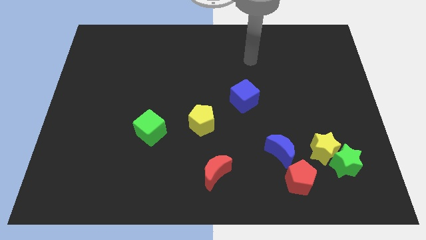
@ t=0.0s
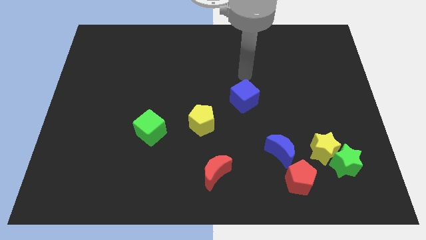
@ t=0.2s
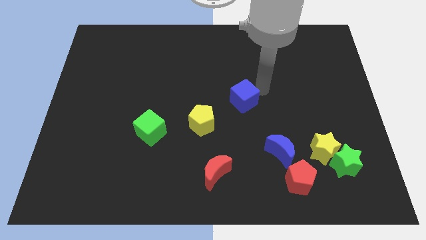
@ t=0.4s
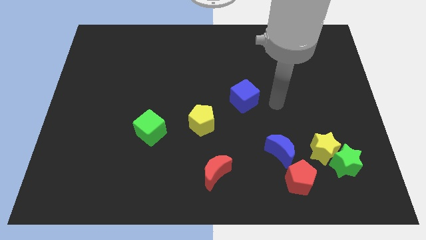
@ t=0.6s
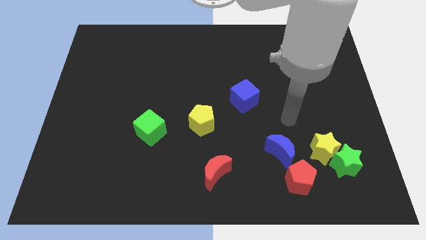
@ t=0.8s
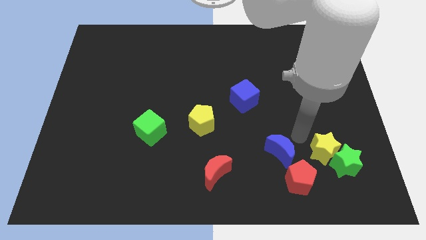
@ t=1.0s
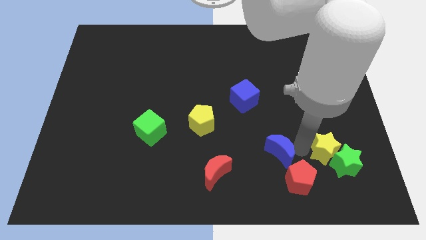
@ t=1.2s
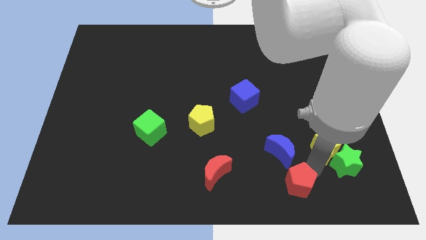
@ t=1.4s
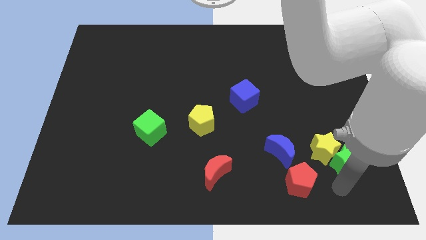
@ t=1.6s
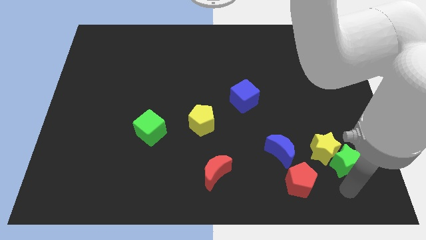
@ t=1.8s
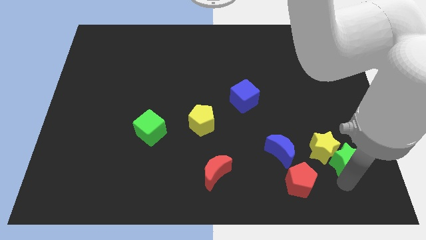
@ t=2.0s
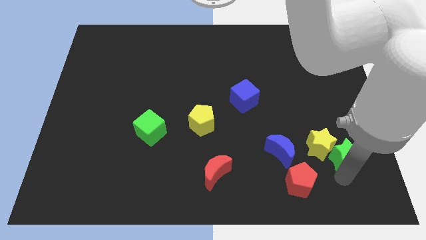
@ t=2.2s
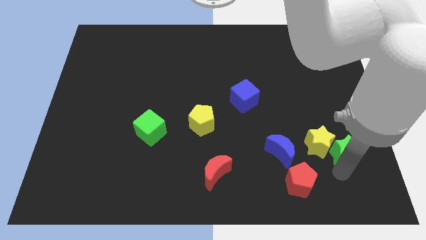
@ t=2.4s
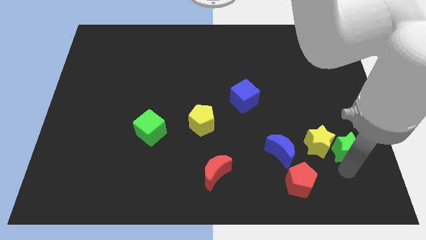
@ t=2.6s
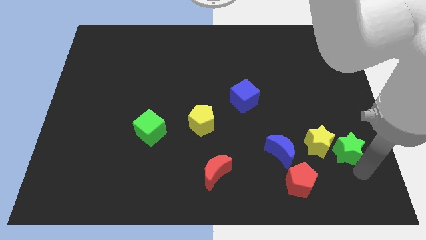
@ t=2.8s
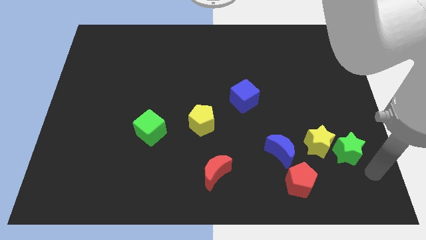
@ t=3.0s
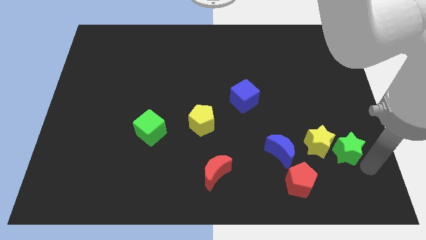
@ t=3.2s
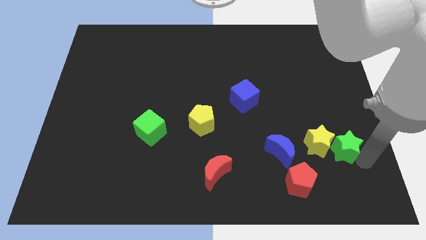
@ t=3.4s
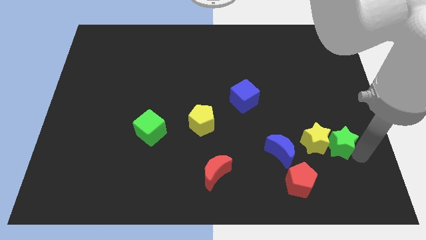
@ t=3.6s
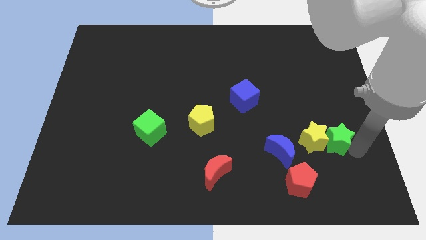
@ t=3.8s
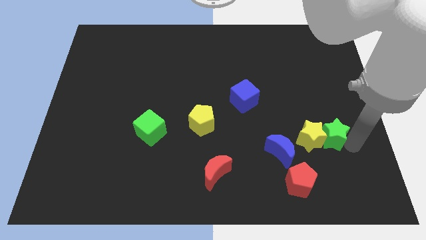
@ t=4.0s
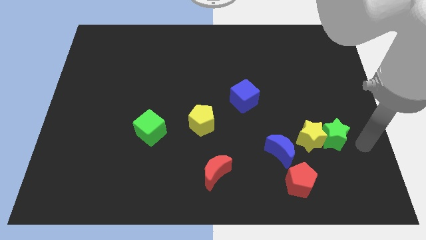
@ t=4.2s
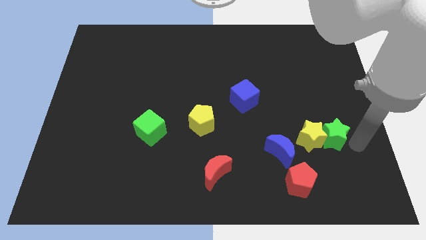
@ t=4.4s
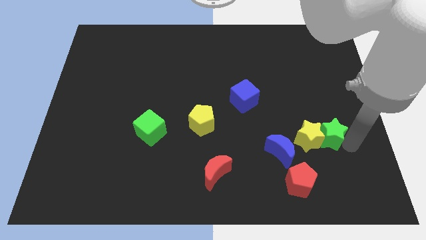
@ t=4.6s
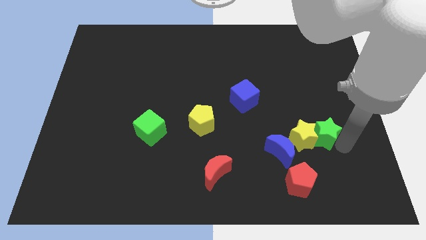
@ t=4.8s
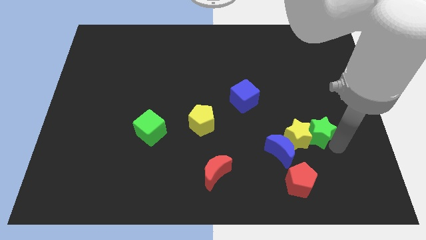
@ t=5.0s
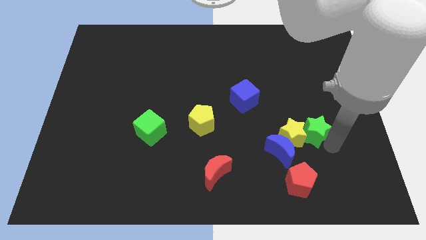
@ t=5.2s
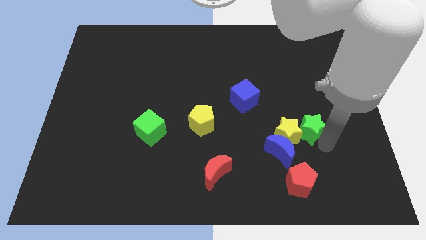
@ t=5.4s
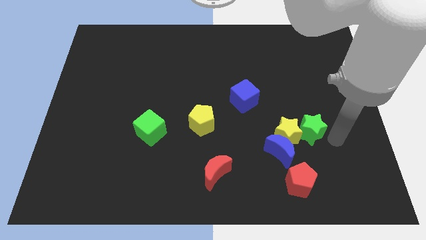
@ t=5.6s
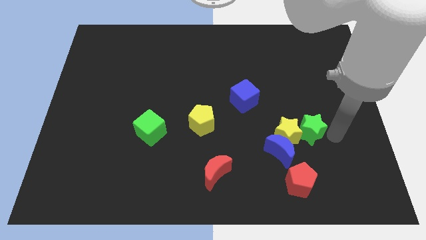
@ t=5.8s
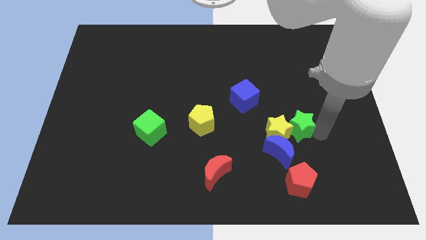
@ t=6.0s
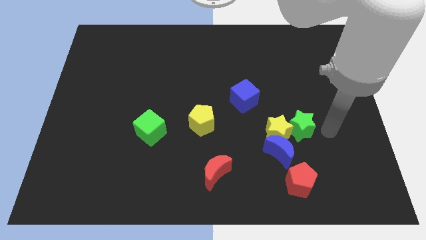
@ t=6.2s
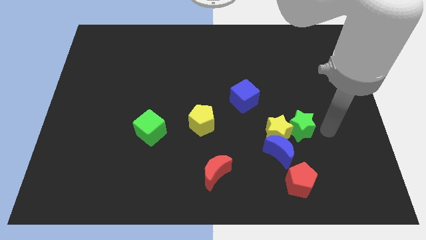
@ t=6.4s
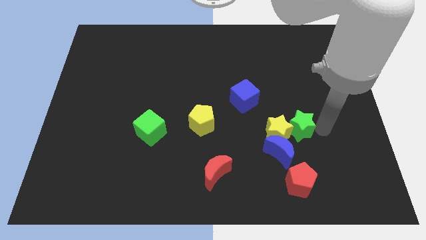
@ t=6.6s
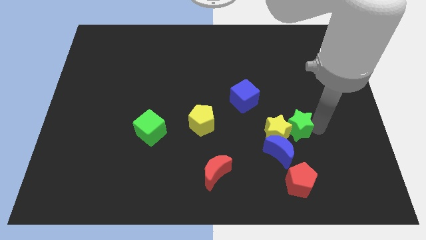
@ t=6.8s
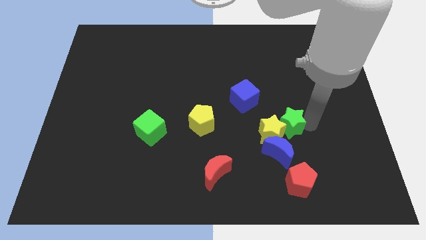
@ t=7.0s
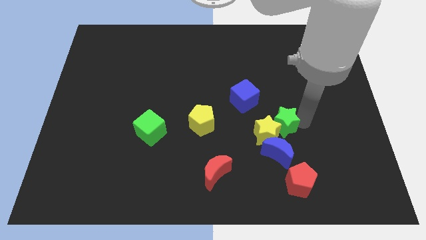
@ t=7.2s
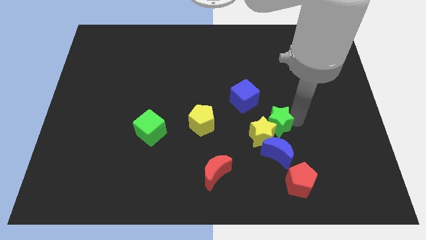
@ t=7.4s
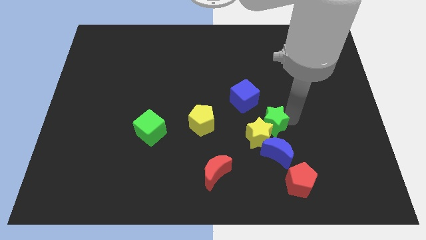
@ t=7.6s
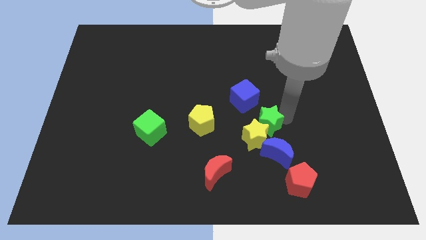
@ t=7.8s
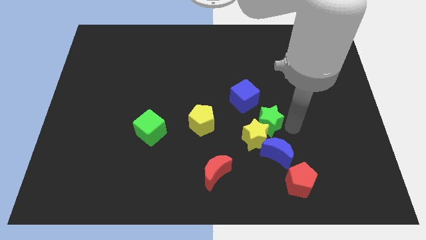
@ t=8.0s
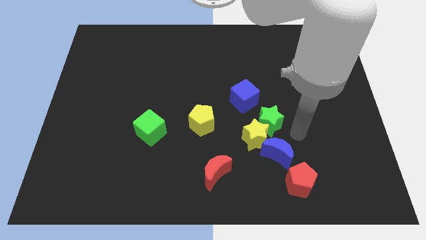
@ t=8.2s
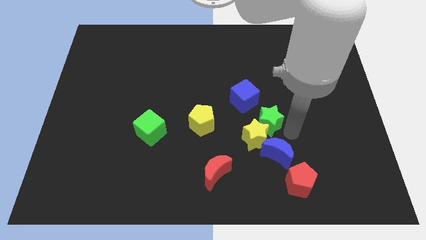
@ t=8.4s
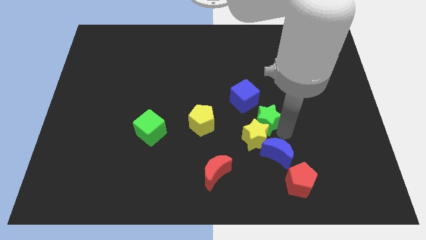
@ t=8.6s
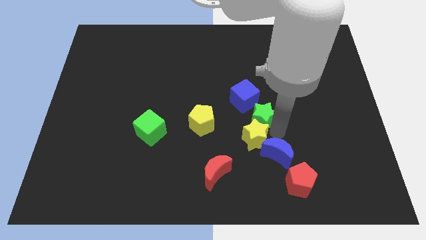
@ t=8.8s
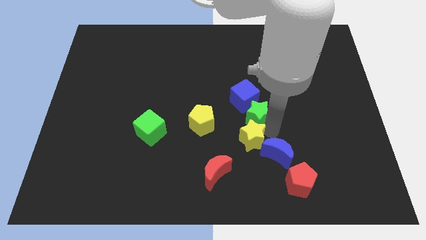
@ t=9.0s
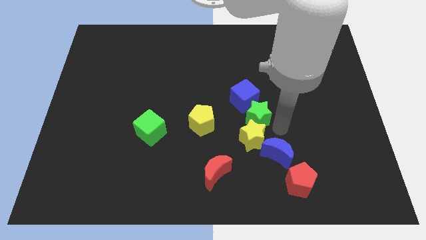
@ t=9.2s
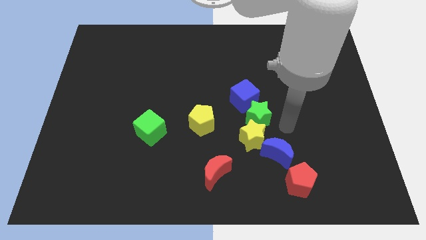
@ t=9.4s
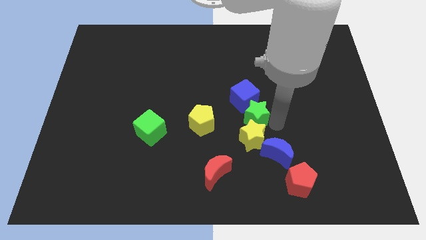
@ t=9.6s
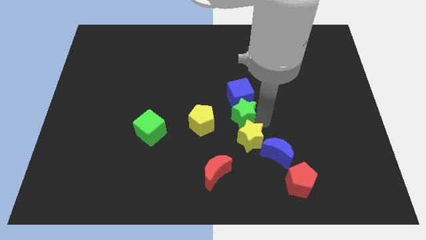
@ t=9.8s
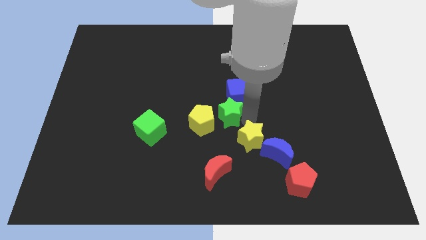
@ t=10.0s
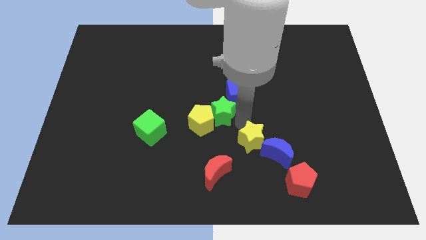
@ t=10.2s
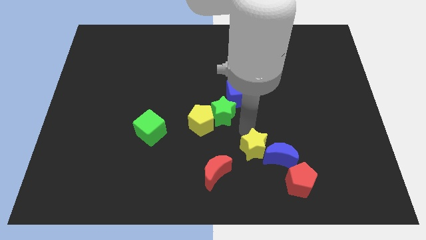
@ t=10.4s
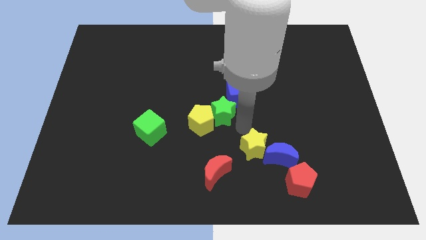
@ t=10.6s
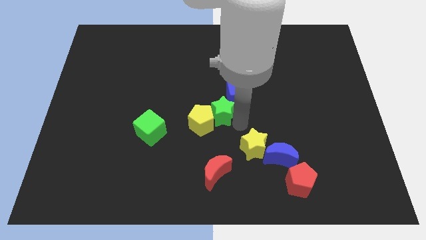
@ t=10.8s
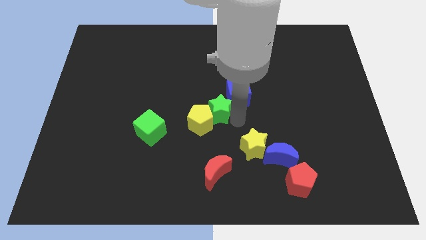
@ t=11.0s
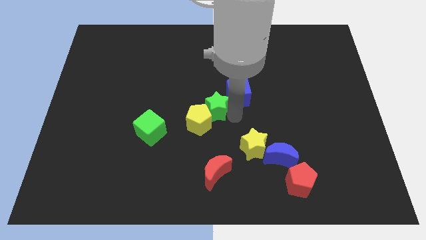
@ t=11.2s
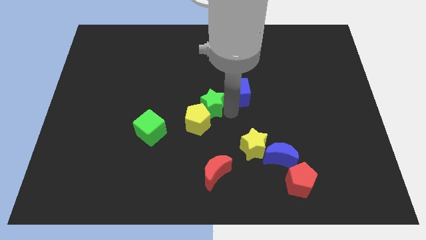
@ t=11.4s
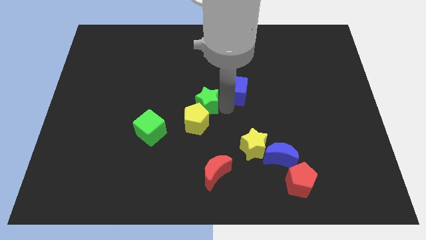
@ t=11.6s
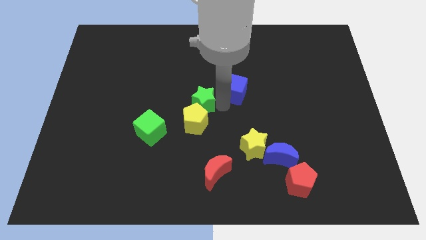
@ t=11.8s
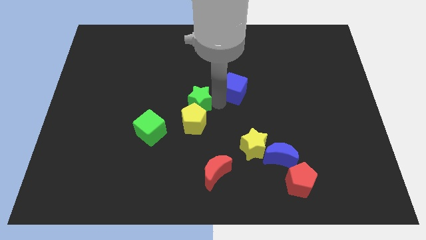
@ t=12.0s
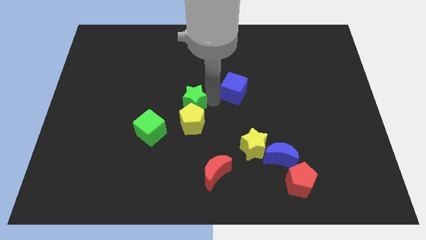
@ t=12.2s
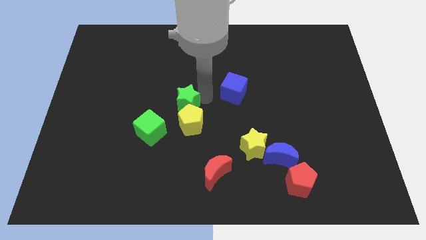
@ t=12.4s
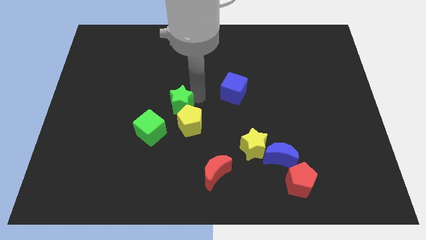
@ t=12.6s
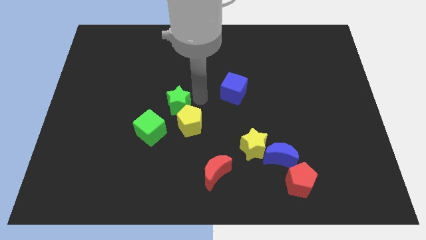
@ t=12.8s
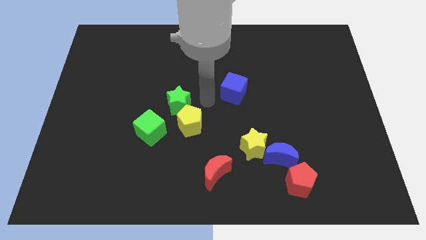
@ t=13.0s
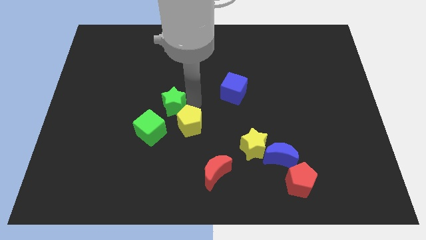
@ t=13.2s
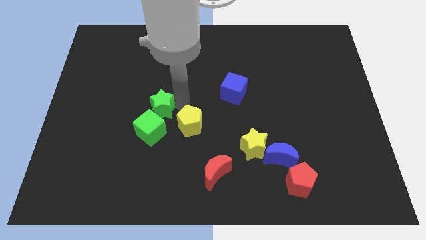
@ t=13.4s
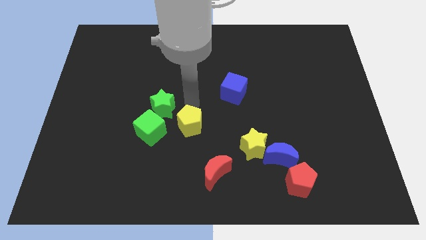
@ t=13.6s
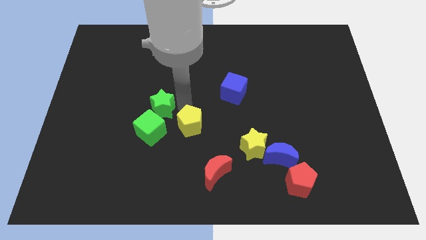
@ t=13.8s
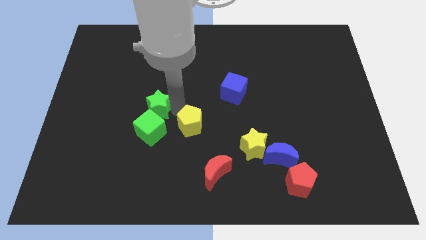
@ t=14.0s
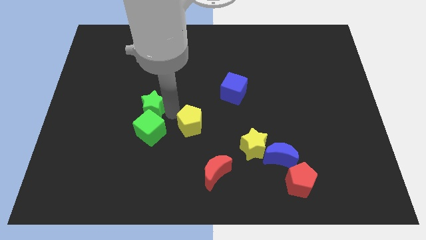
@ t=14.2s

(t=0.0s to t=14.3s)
put the green star to the top left of the green cube
